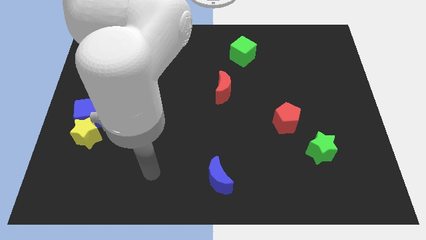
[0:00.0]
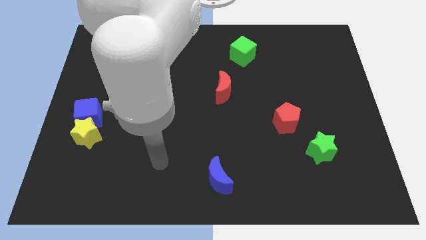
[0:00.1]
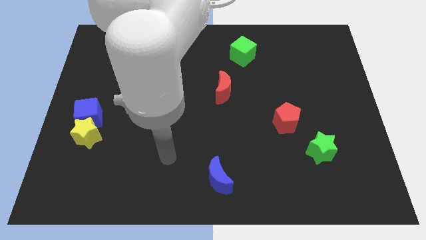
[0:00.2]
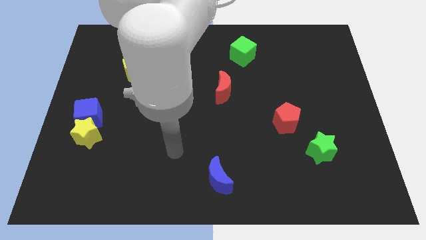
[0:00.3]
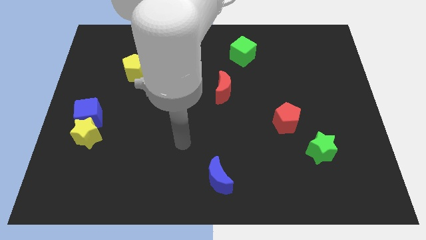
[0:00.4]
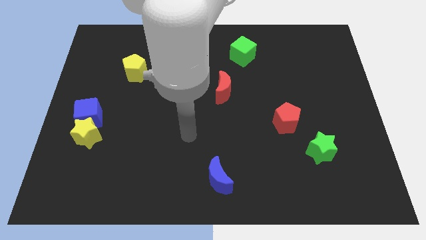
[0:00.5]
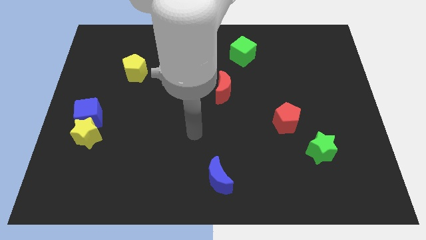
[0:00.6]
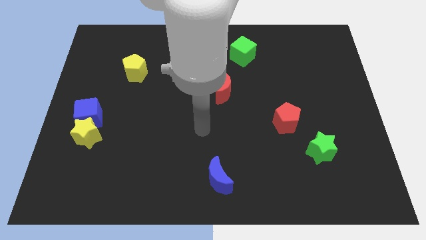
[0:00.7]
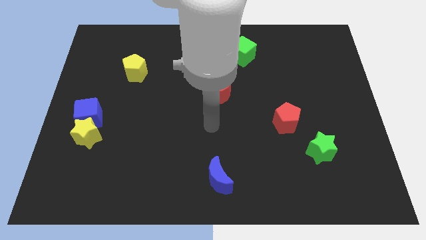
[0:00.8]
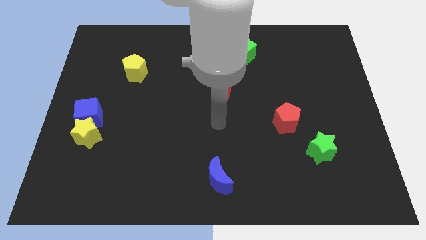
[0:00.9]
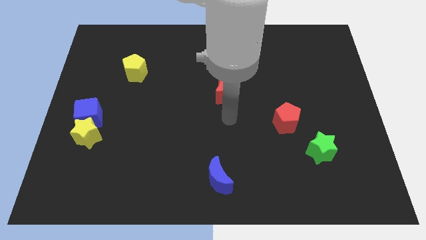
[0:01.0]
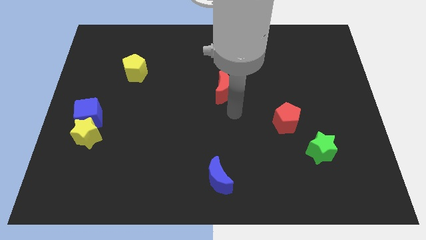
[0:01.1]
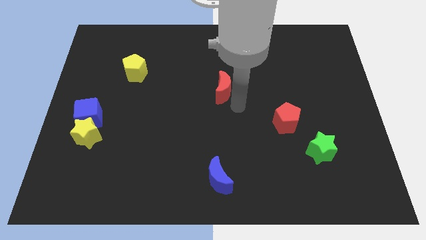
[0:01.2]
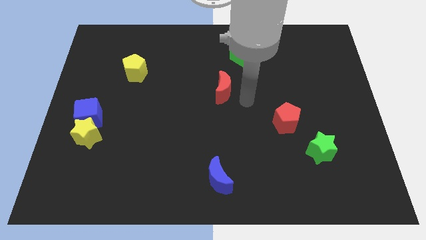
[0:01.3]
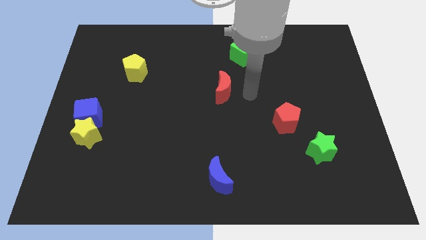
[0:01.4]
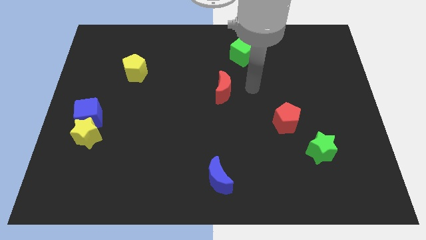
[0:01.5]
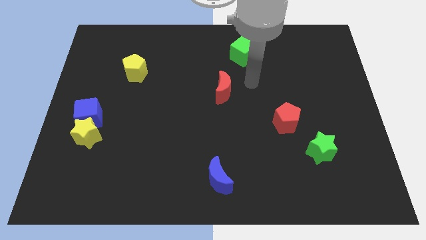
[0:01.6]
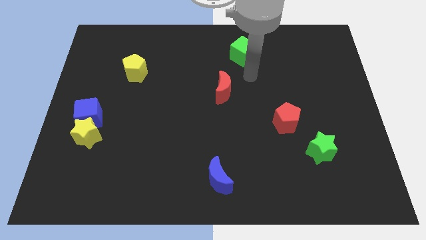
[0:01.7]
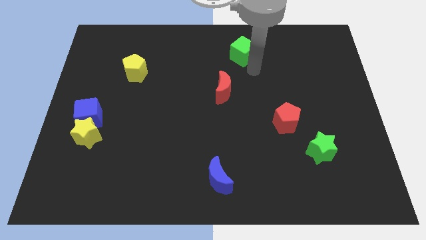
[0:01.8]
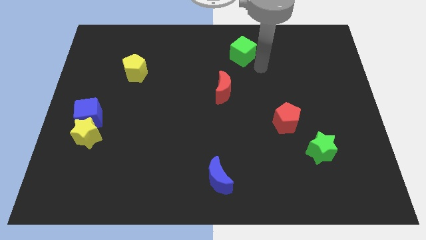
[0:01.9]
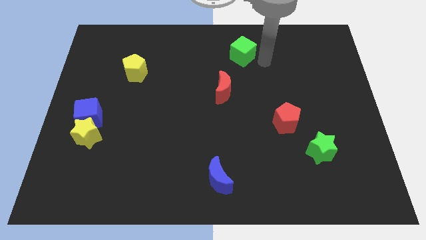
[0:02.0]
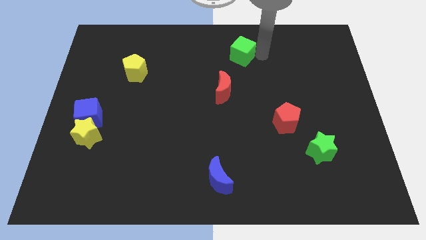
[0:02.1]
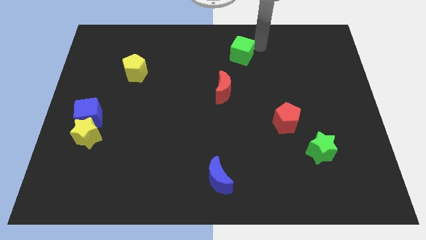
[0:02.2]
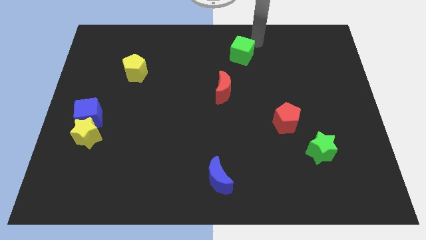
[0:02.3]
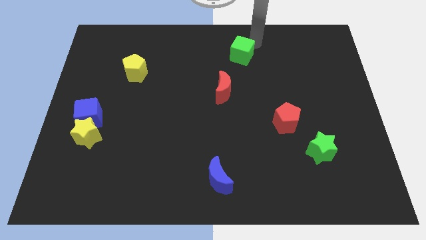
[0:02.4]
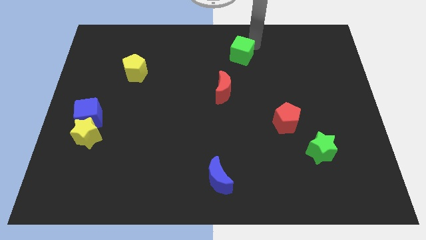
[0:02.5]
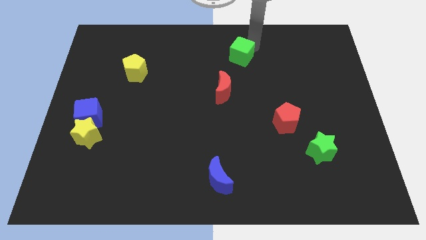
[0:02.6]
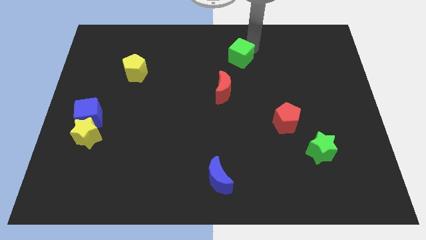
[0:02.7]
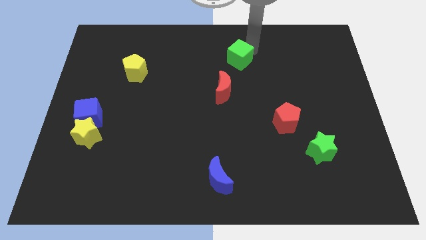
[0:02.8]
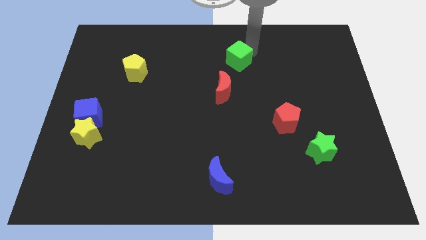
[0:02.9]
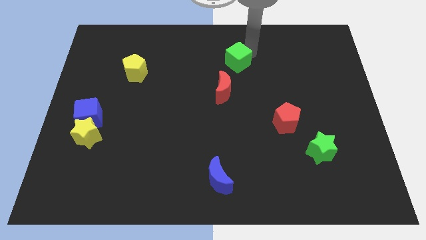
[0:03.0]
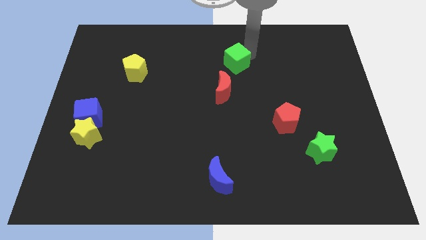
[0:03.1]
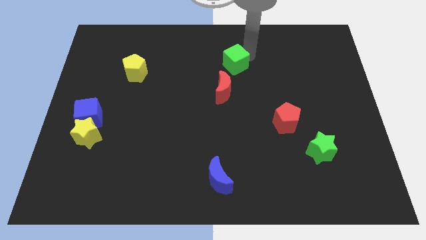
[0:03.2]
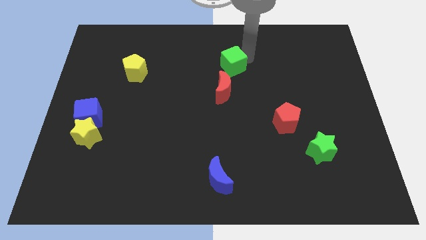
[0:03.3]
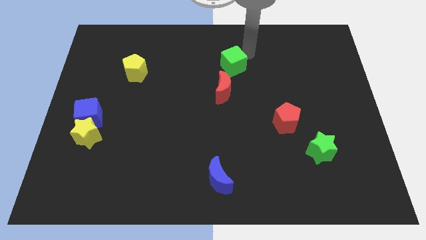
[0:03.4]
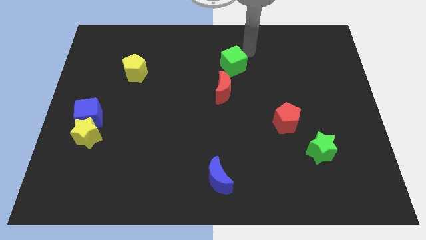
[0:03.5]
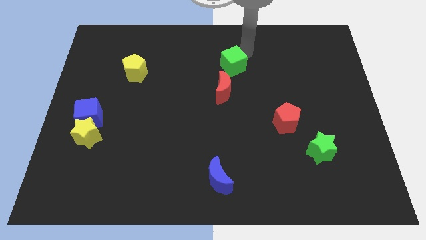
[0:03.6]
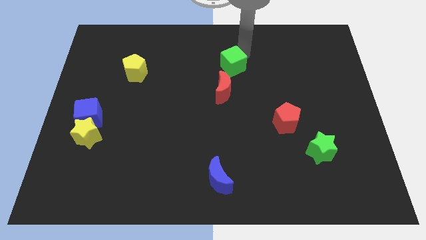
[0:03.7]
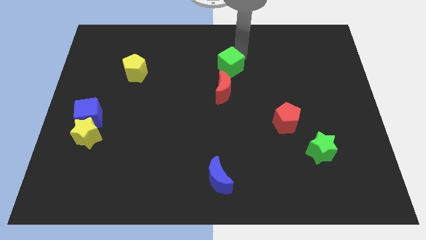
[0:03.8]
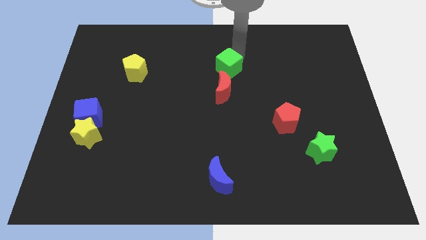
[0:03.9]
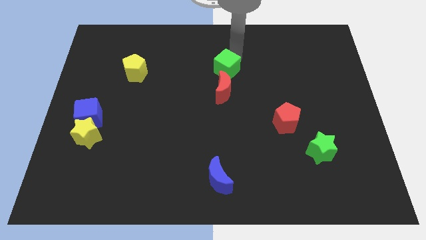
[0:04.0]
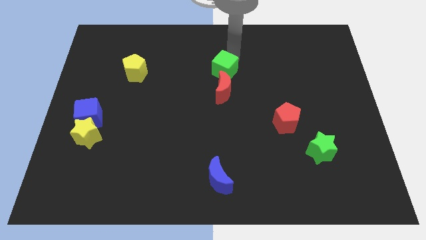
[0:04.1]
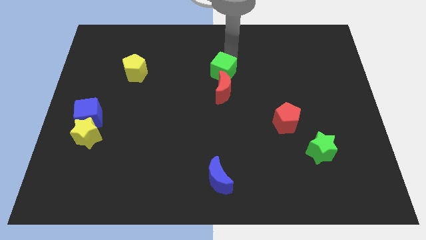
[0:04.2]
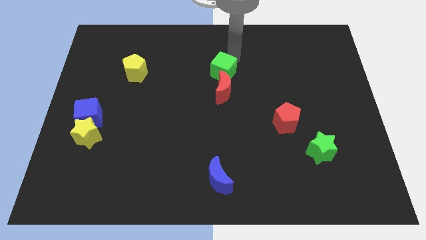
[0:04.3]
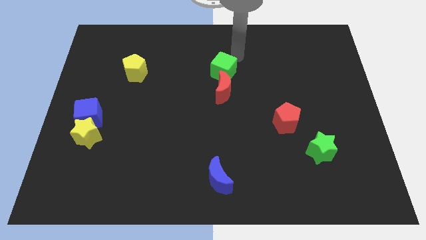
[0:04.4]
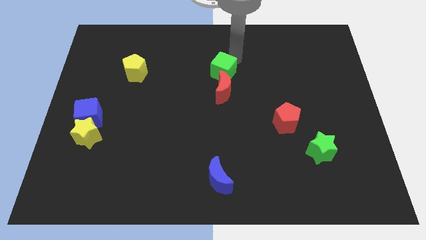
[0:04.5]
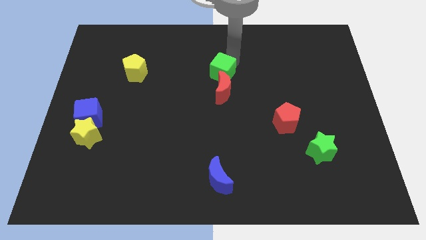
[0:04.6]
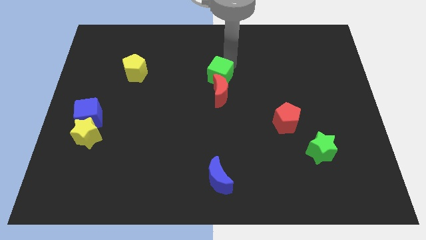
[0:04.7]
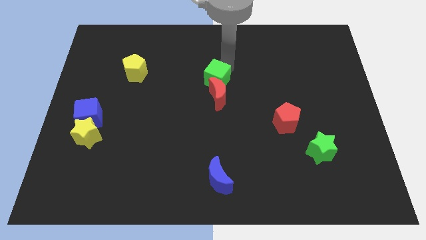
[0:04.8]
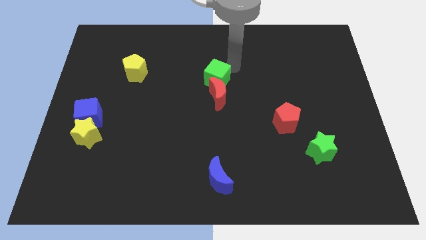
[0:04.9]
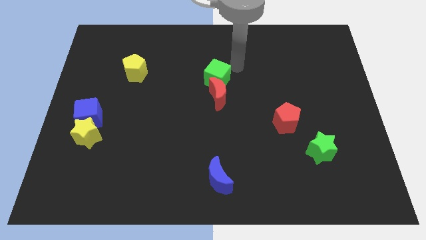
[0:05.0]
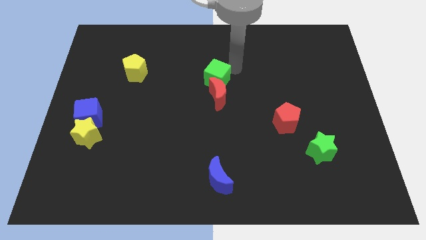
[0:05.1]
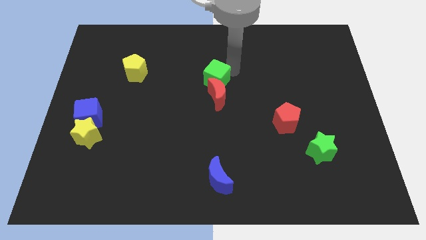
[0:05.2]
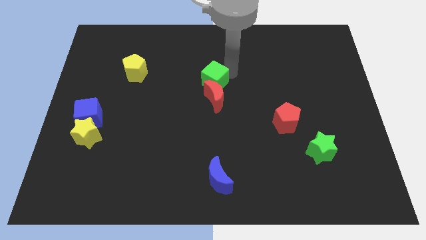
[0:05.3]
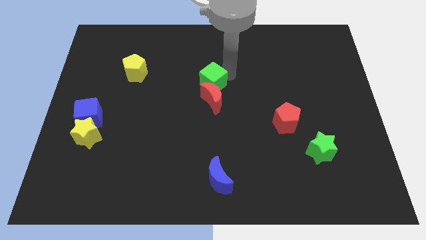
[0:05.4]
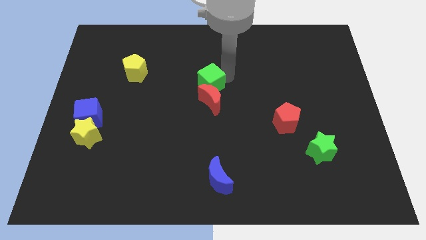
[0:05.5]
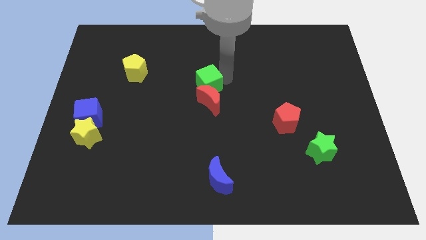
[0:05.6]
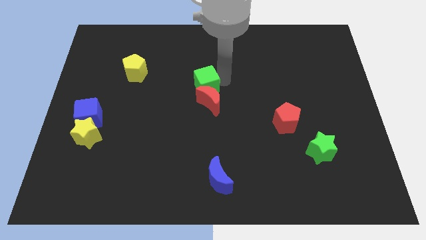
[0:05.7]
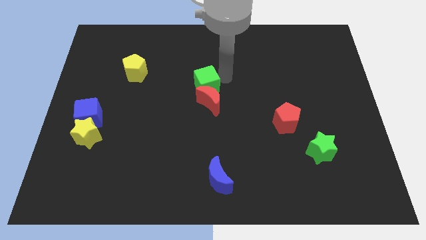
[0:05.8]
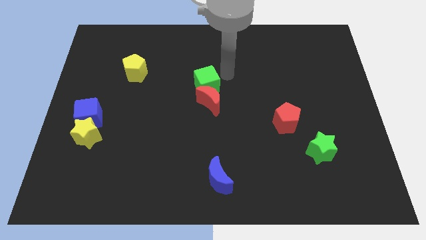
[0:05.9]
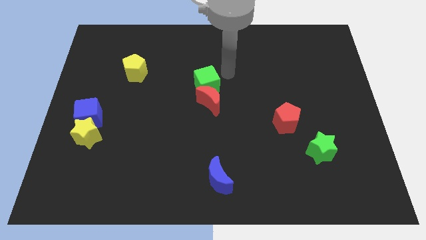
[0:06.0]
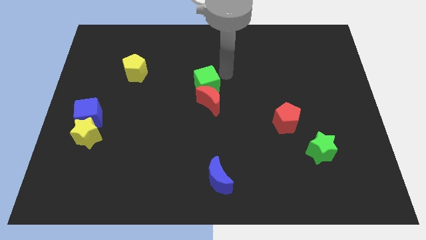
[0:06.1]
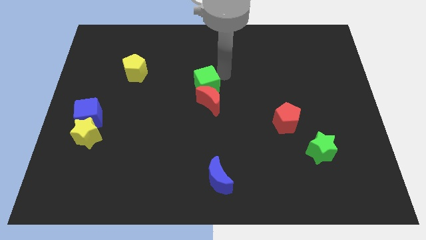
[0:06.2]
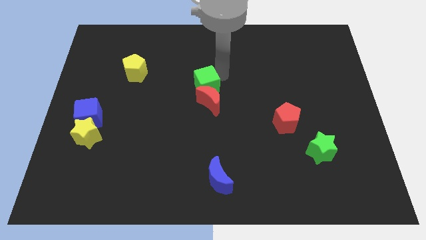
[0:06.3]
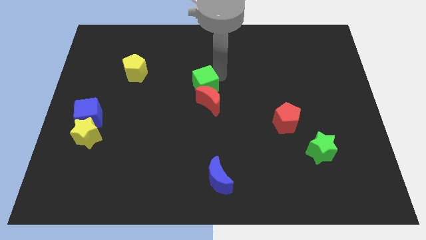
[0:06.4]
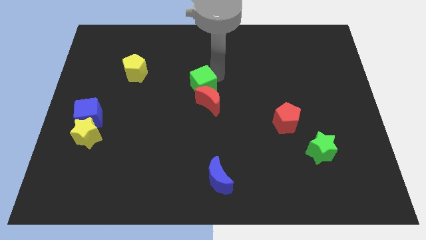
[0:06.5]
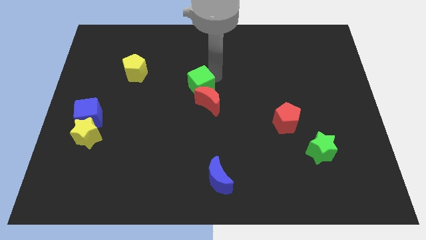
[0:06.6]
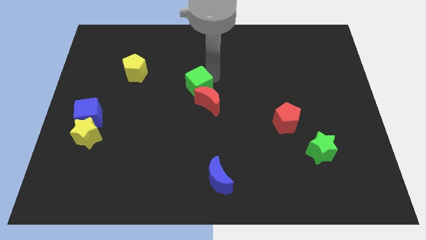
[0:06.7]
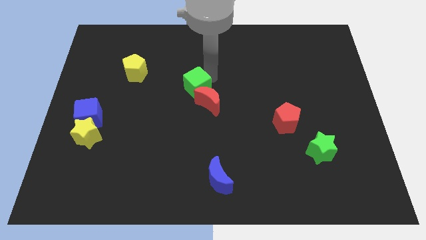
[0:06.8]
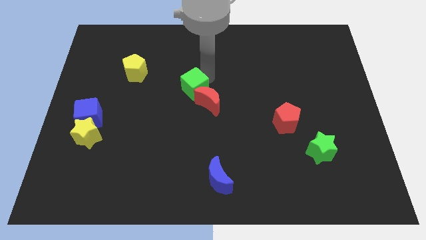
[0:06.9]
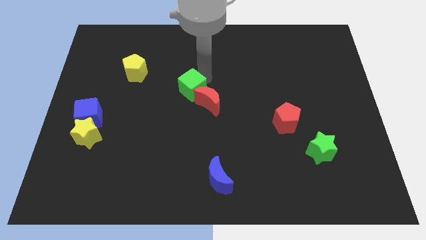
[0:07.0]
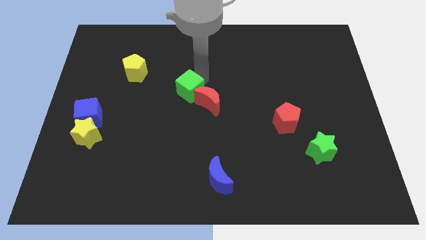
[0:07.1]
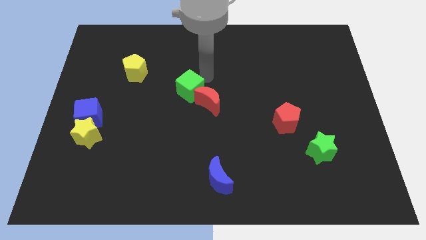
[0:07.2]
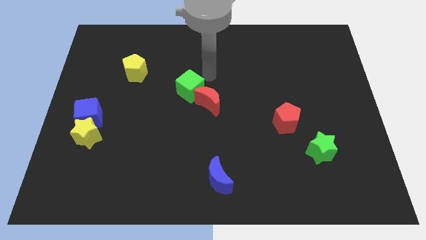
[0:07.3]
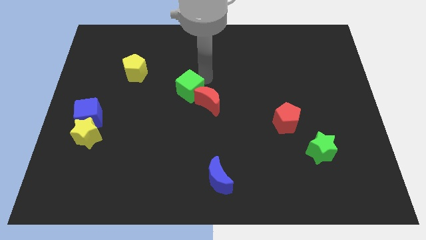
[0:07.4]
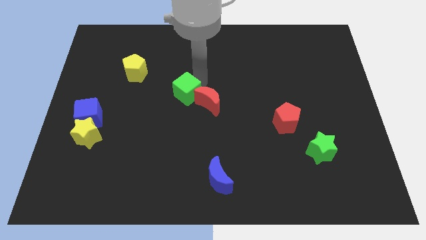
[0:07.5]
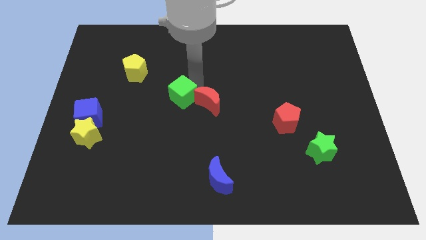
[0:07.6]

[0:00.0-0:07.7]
push the green cube downwards and to the left
